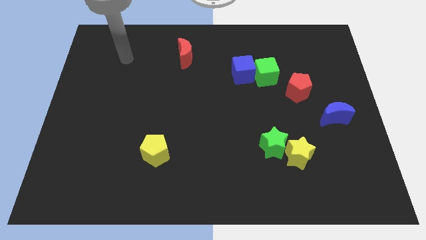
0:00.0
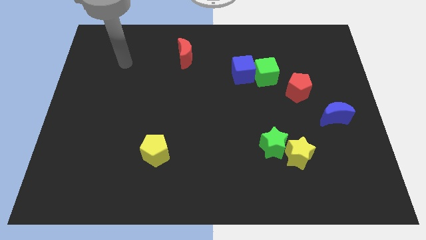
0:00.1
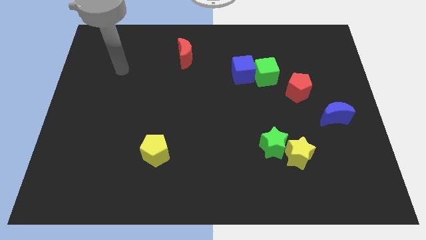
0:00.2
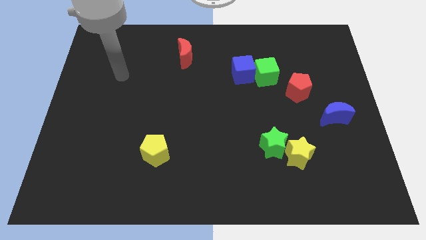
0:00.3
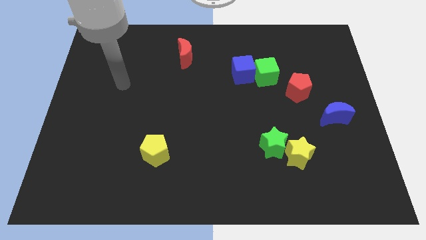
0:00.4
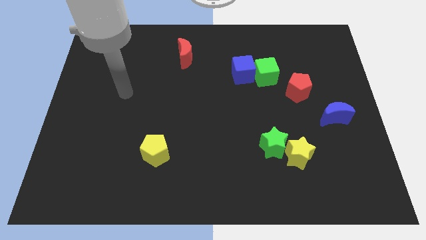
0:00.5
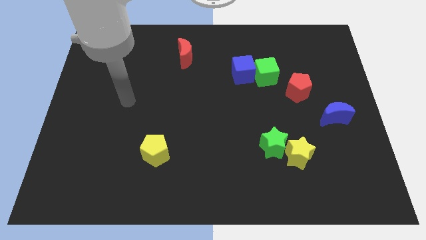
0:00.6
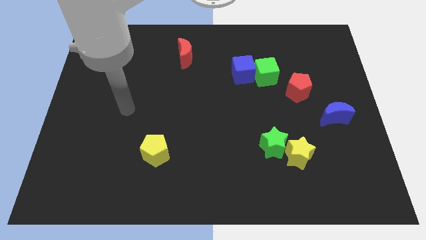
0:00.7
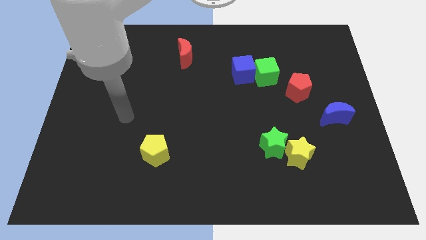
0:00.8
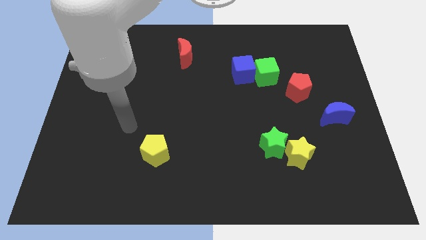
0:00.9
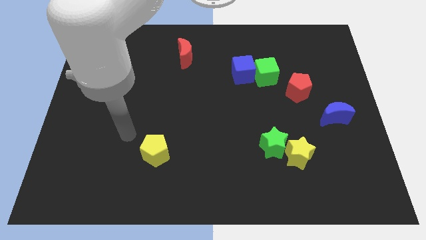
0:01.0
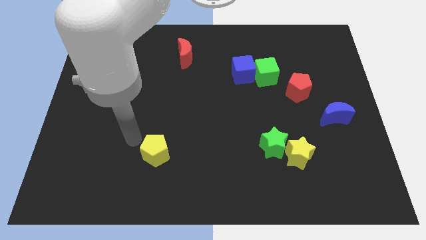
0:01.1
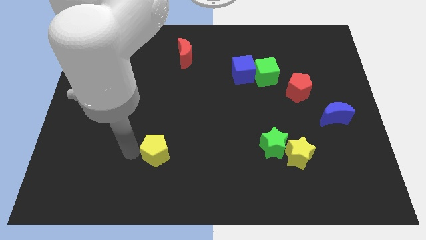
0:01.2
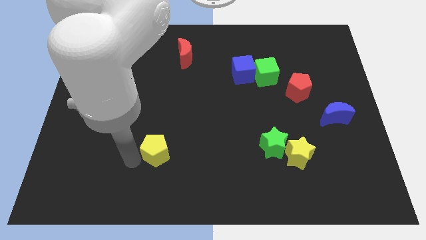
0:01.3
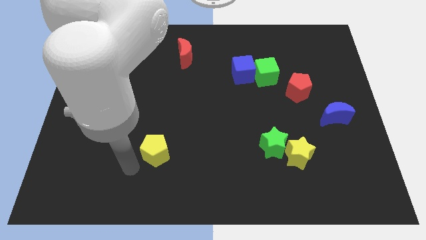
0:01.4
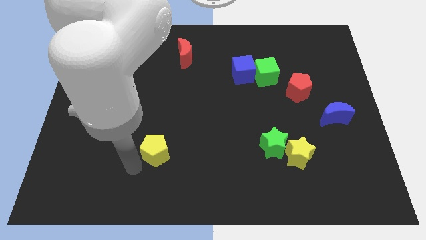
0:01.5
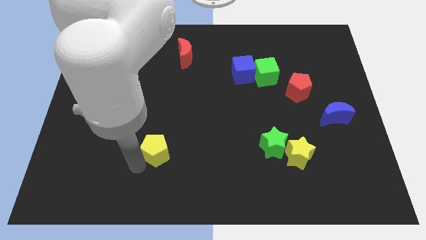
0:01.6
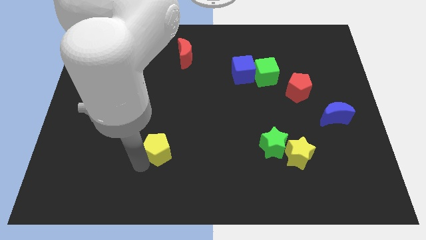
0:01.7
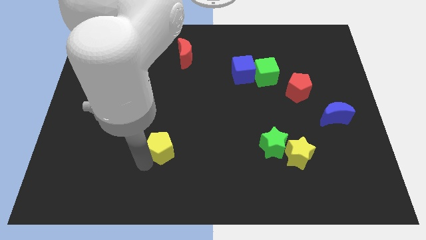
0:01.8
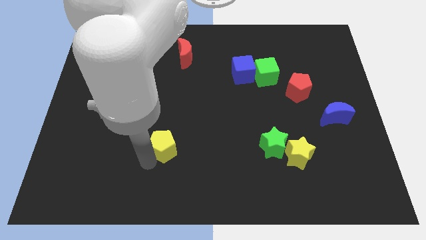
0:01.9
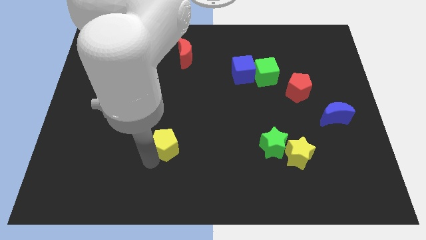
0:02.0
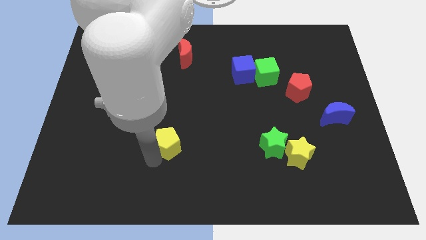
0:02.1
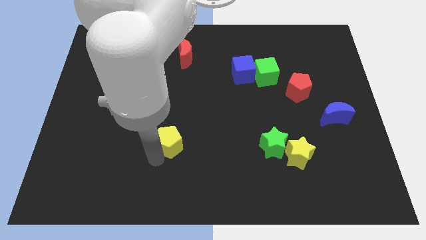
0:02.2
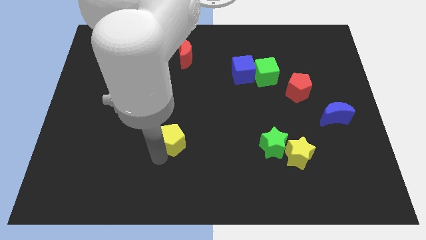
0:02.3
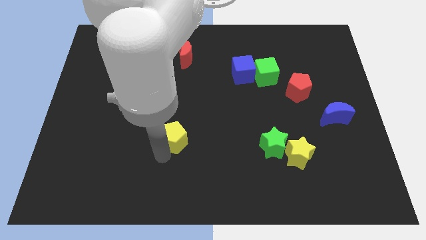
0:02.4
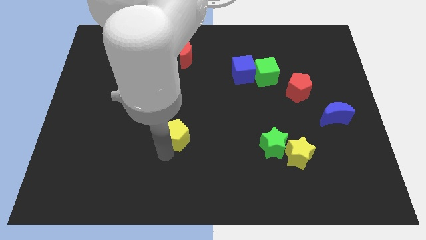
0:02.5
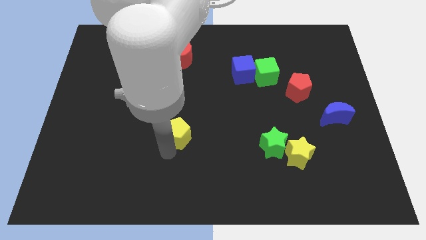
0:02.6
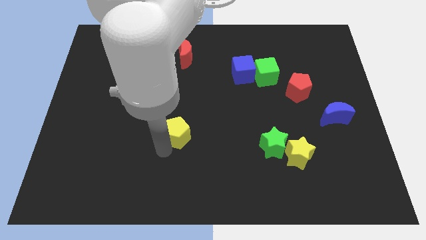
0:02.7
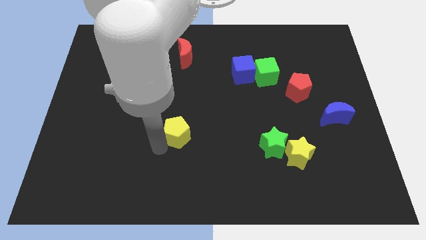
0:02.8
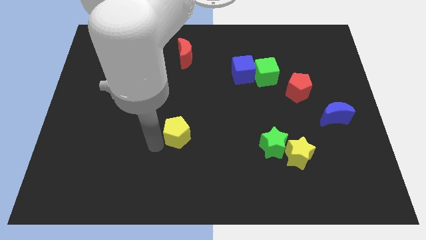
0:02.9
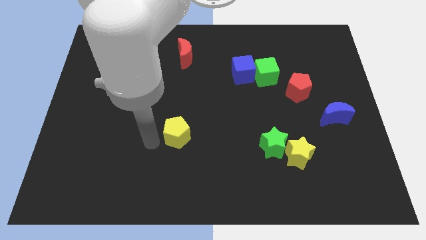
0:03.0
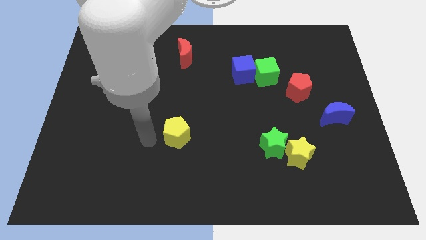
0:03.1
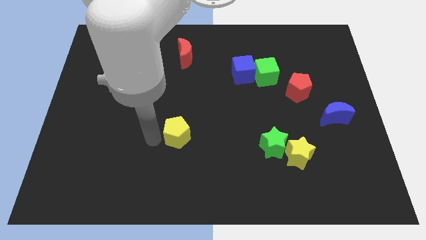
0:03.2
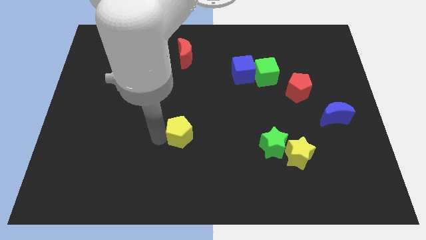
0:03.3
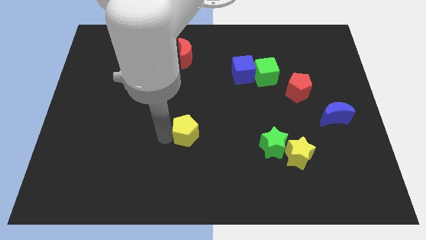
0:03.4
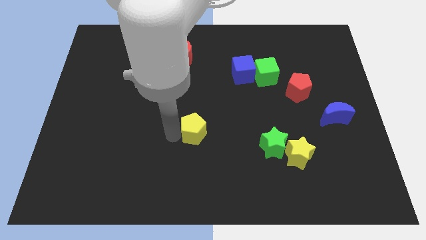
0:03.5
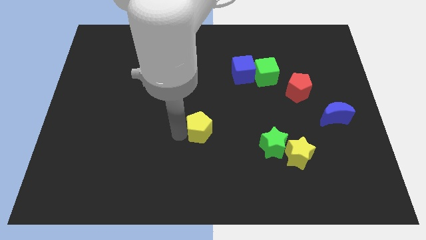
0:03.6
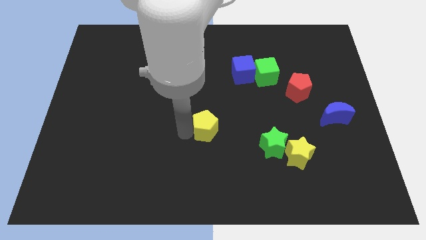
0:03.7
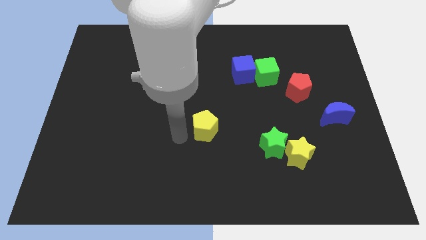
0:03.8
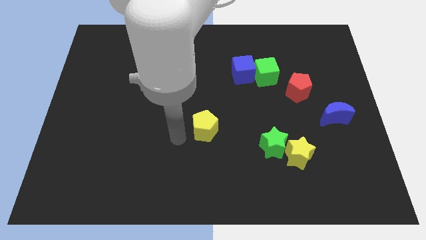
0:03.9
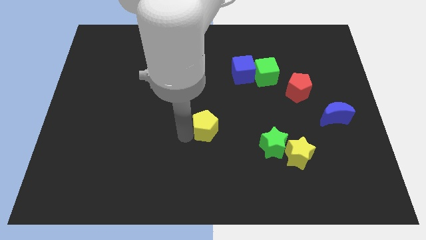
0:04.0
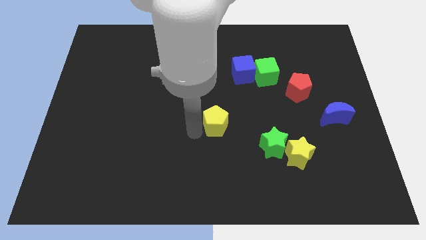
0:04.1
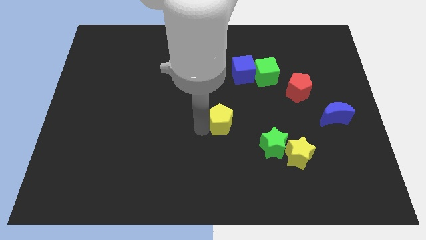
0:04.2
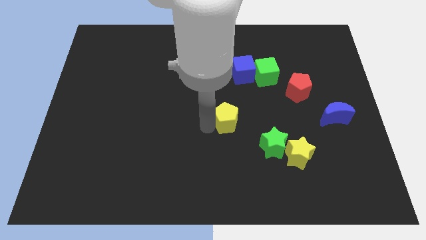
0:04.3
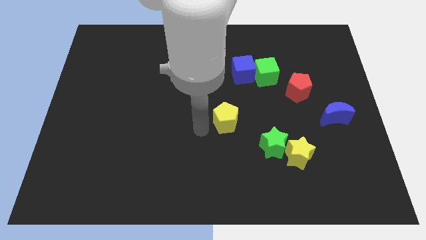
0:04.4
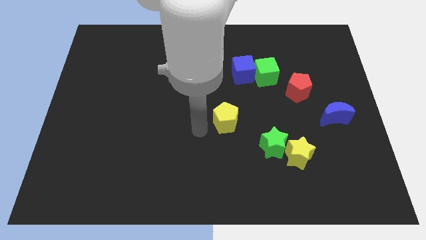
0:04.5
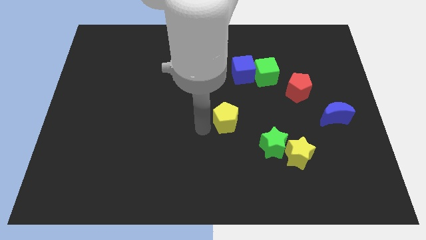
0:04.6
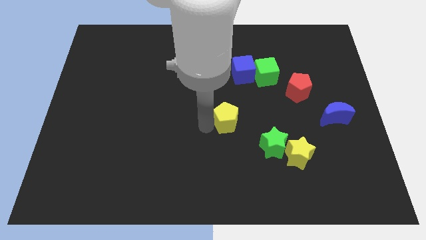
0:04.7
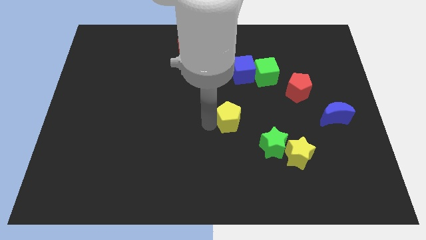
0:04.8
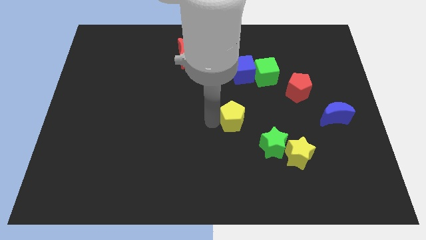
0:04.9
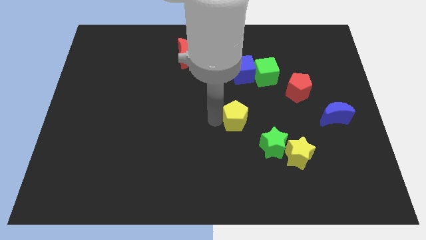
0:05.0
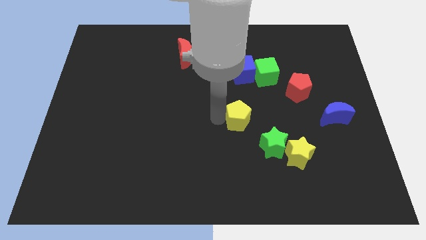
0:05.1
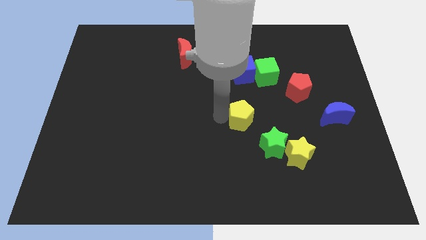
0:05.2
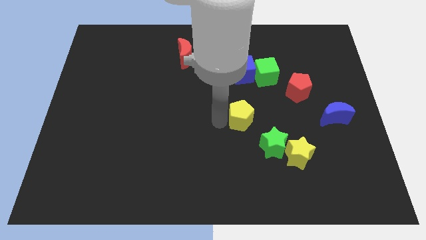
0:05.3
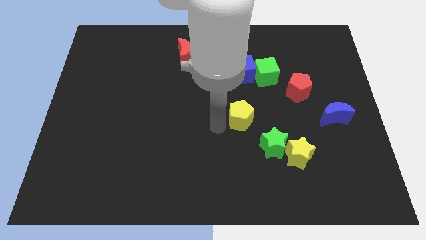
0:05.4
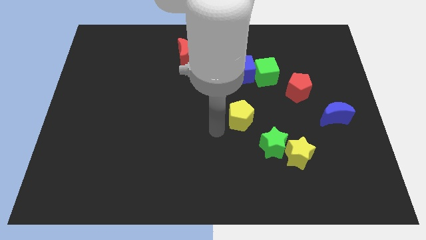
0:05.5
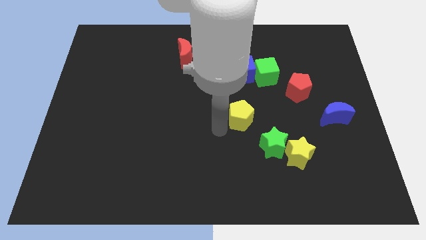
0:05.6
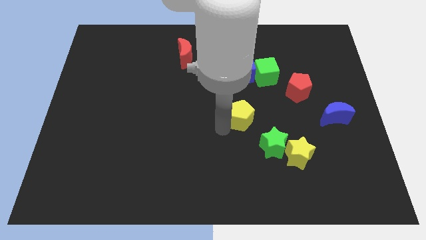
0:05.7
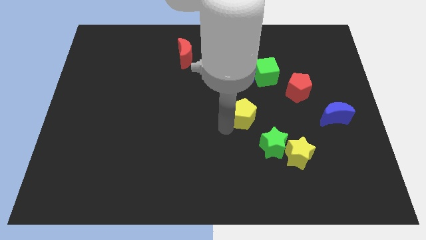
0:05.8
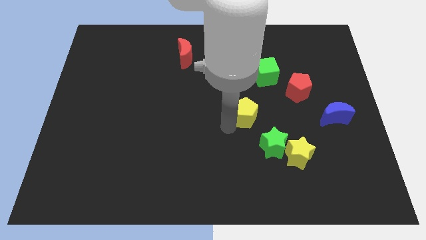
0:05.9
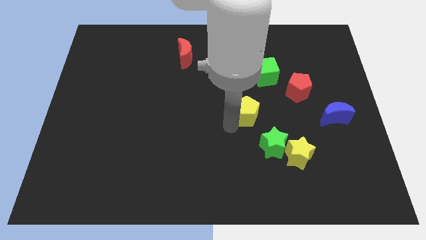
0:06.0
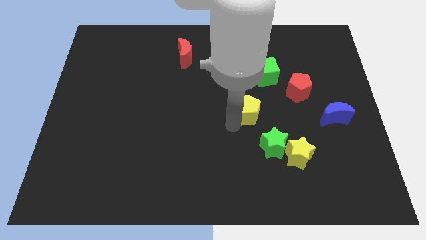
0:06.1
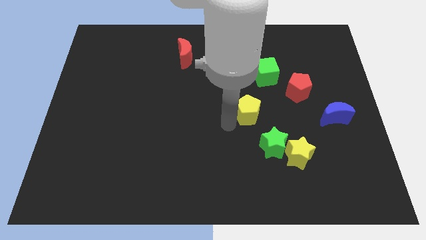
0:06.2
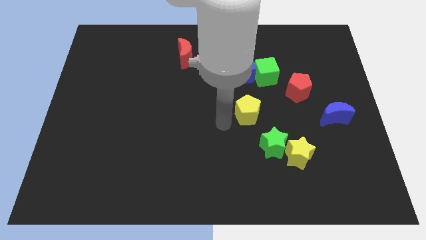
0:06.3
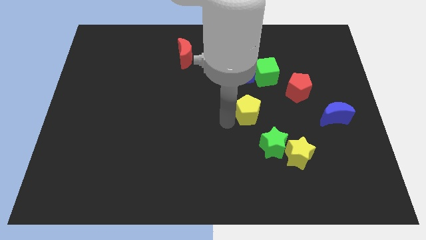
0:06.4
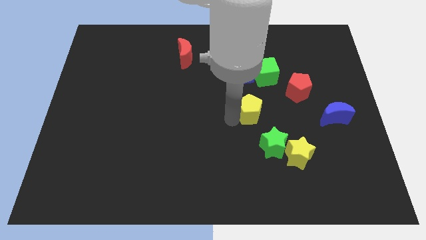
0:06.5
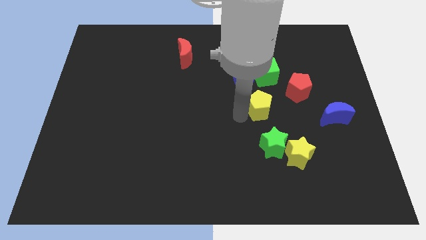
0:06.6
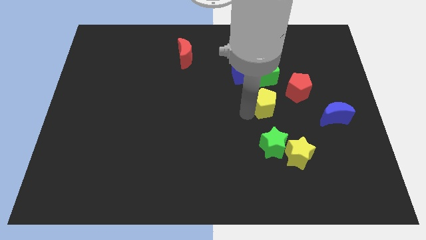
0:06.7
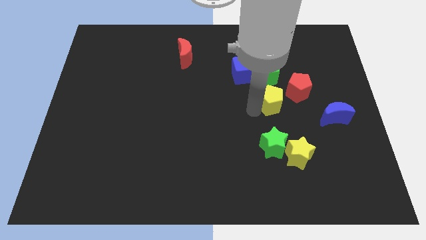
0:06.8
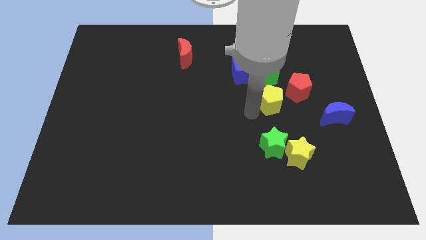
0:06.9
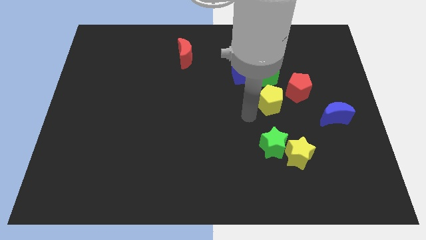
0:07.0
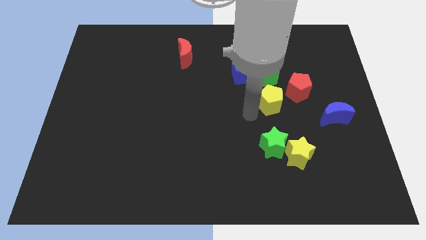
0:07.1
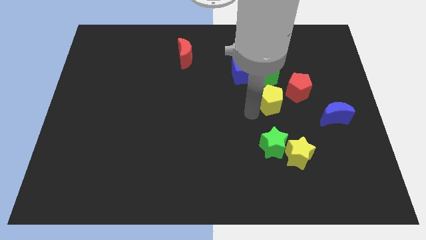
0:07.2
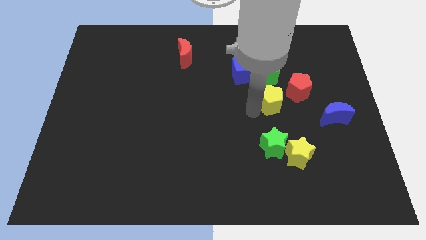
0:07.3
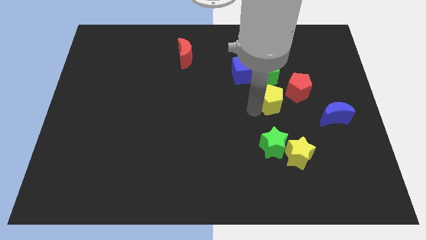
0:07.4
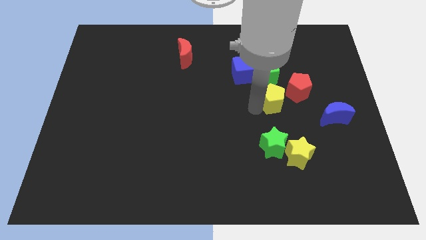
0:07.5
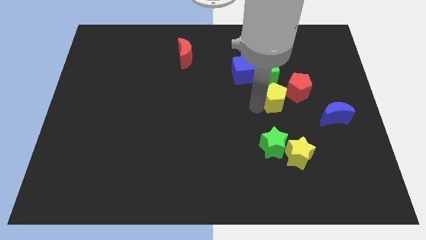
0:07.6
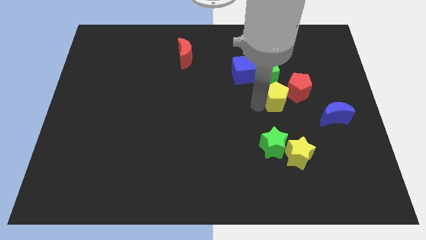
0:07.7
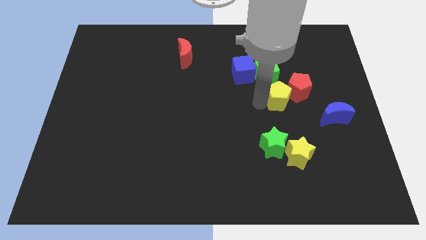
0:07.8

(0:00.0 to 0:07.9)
push the yellow pentagon next to the red pentagon
